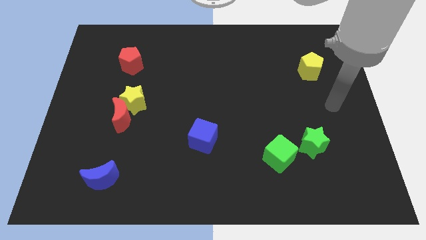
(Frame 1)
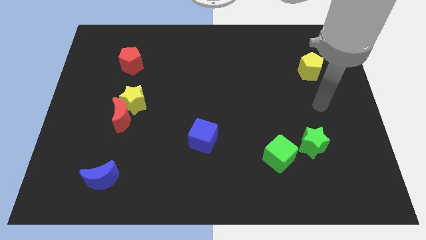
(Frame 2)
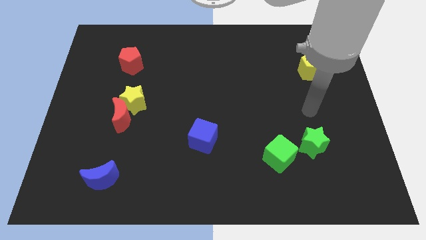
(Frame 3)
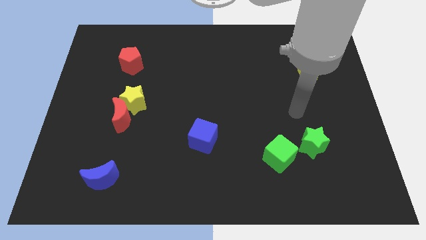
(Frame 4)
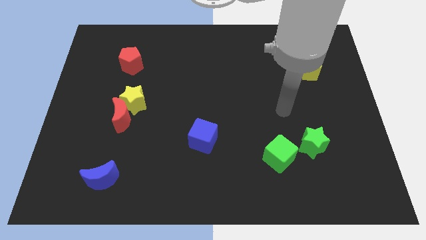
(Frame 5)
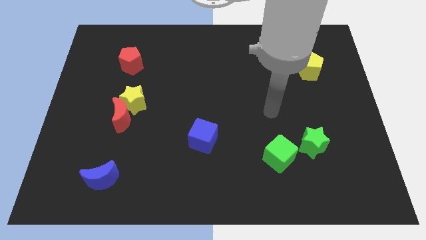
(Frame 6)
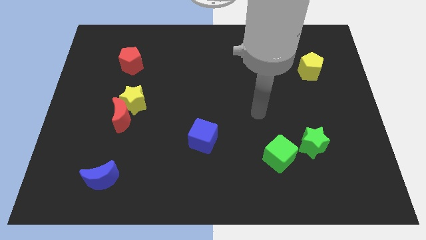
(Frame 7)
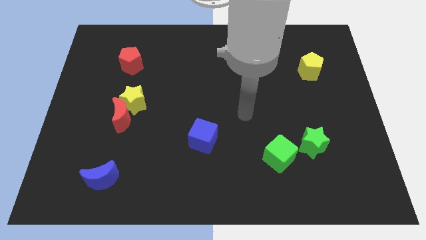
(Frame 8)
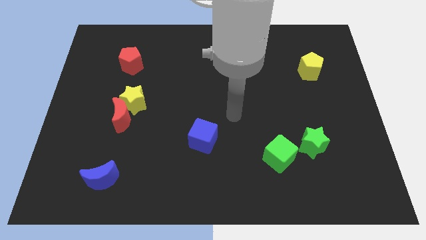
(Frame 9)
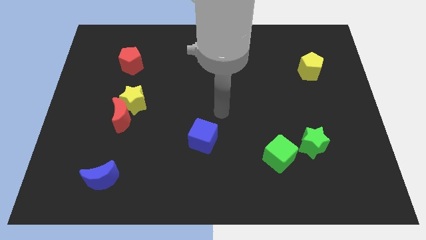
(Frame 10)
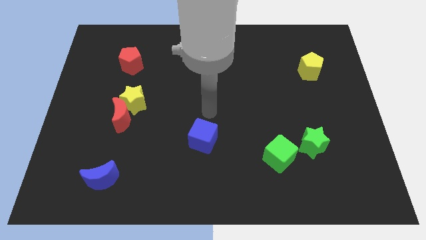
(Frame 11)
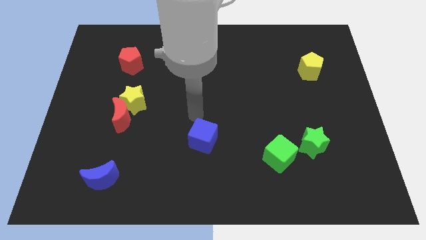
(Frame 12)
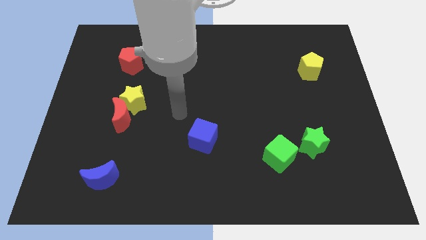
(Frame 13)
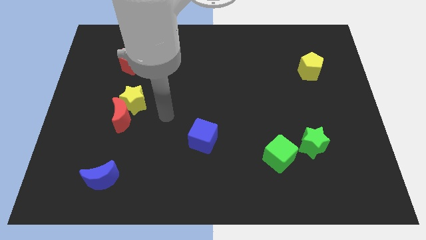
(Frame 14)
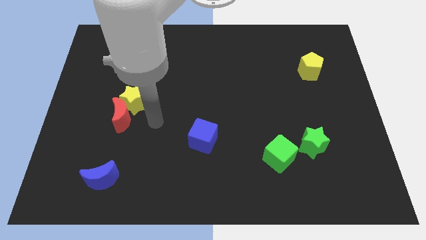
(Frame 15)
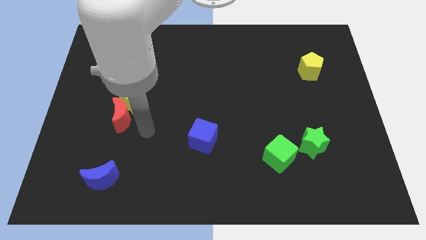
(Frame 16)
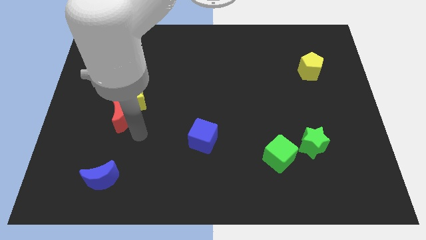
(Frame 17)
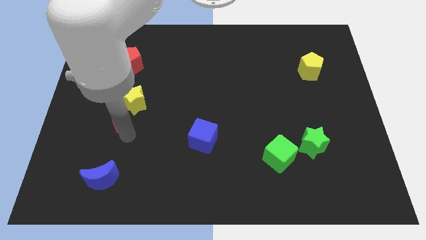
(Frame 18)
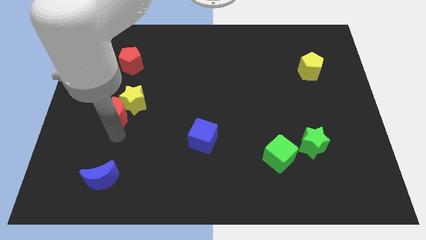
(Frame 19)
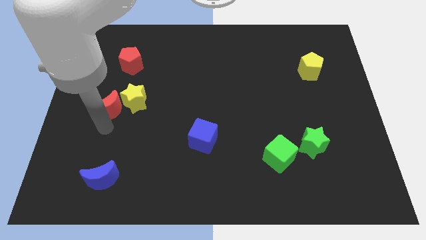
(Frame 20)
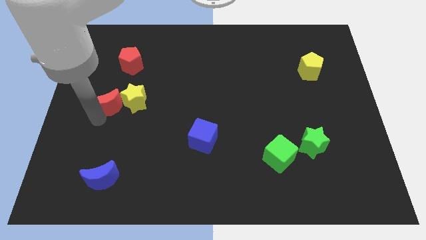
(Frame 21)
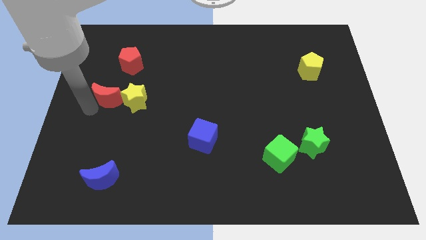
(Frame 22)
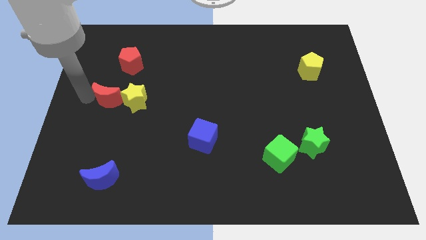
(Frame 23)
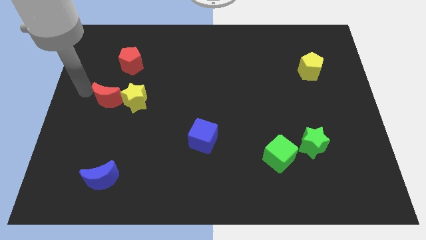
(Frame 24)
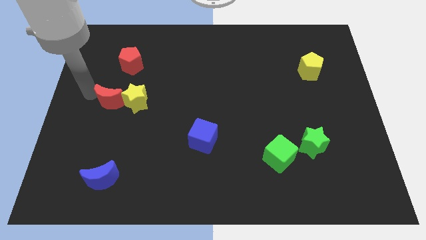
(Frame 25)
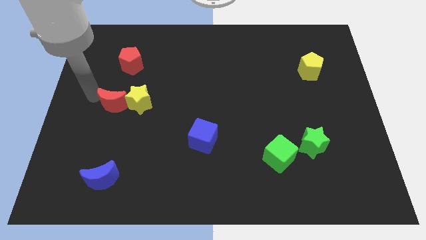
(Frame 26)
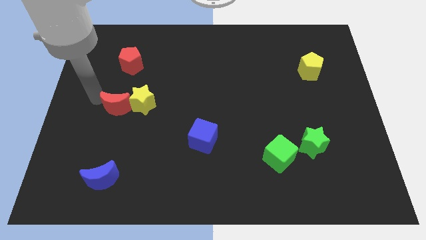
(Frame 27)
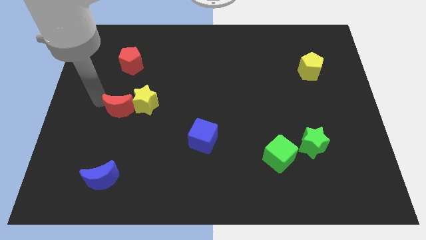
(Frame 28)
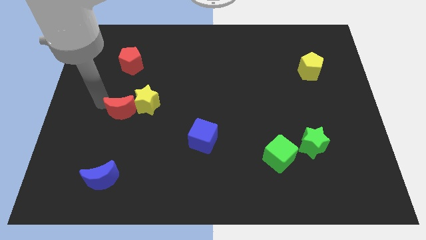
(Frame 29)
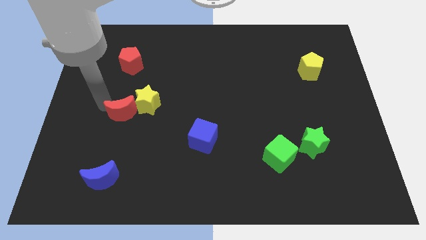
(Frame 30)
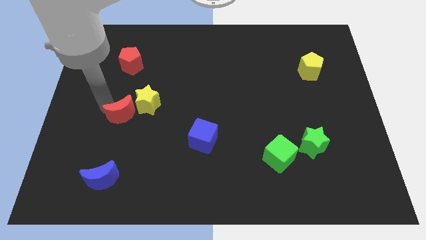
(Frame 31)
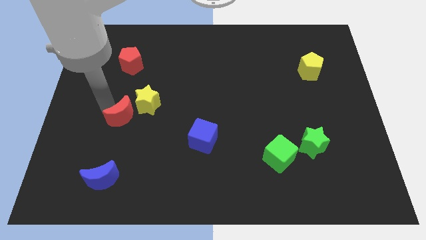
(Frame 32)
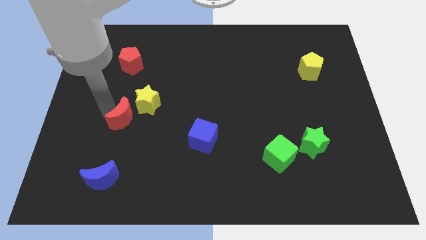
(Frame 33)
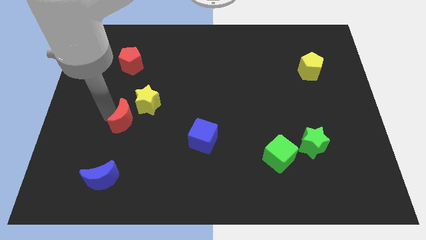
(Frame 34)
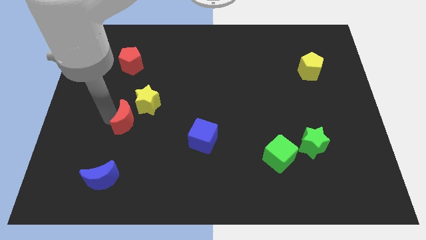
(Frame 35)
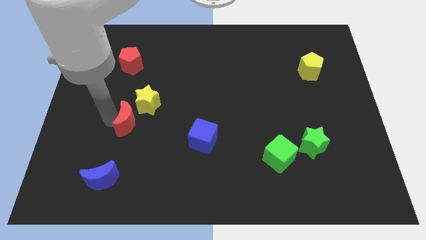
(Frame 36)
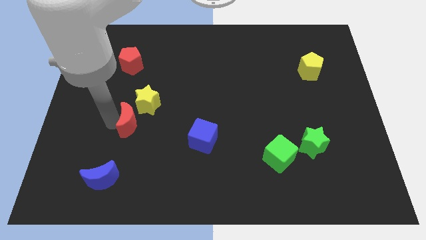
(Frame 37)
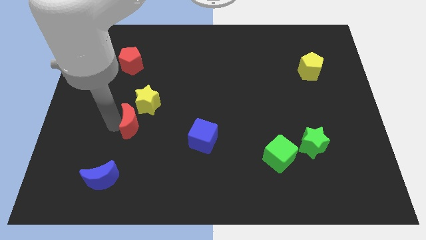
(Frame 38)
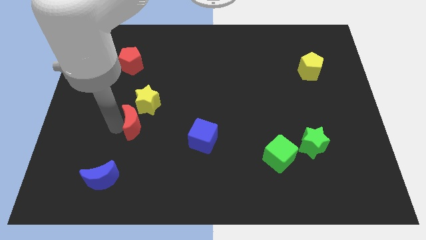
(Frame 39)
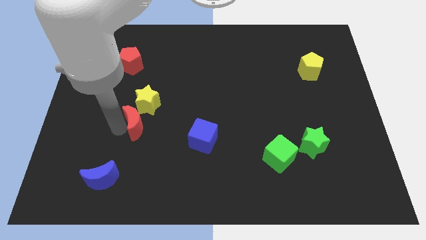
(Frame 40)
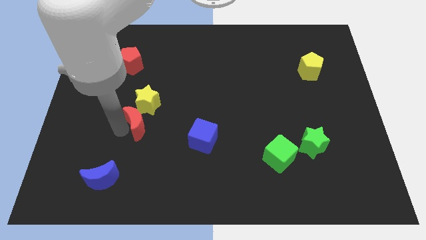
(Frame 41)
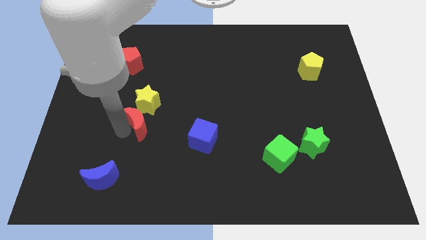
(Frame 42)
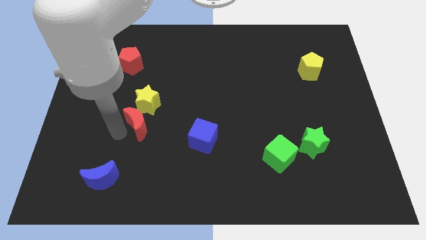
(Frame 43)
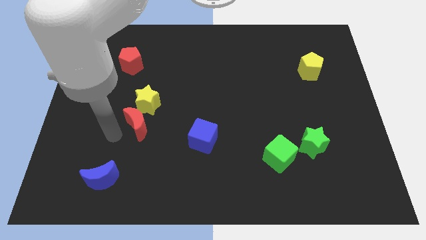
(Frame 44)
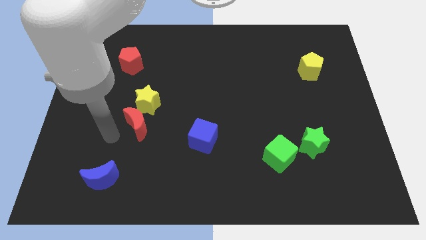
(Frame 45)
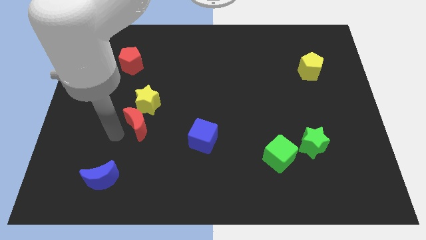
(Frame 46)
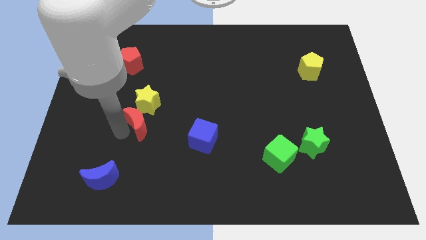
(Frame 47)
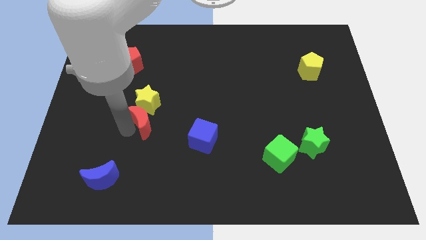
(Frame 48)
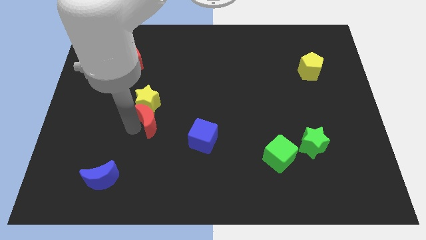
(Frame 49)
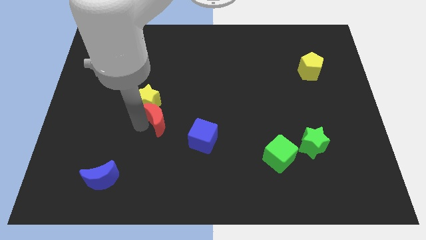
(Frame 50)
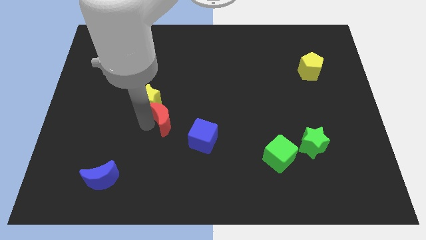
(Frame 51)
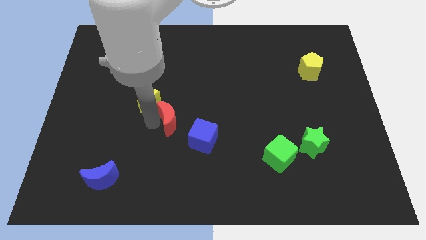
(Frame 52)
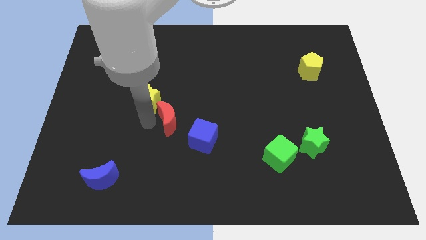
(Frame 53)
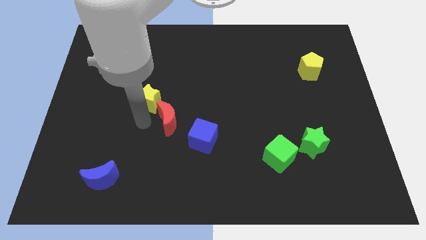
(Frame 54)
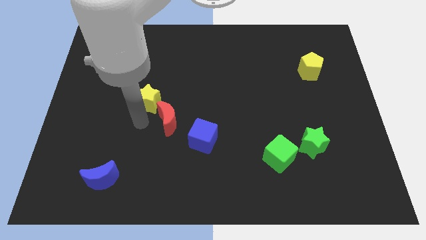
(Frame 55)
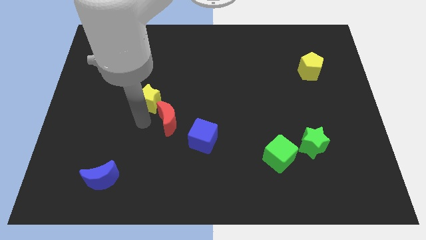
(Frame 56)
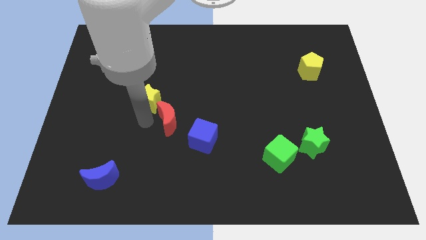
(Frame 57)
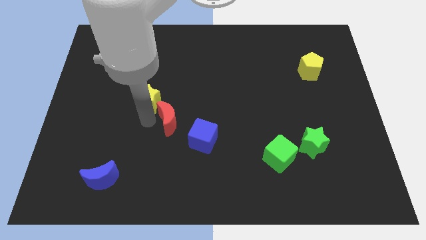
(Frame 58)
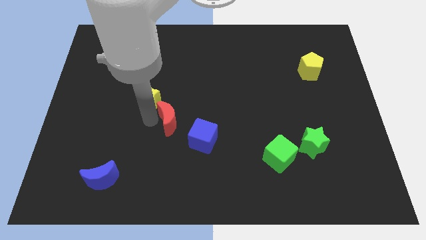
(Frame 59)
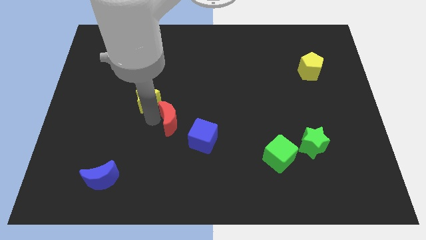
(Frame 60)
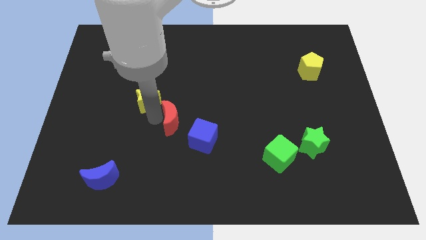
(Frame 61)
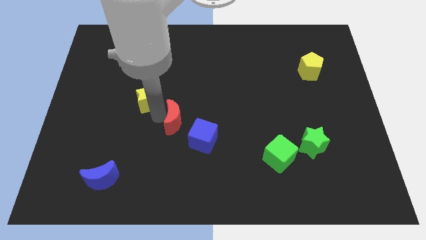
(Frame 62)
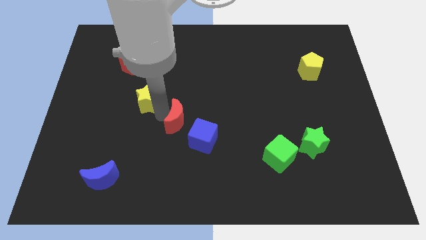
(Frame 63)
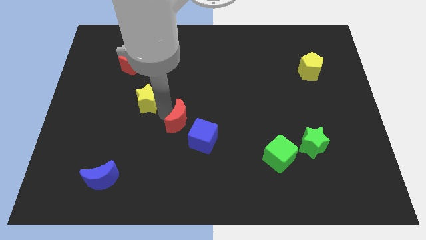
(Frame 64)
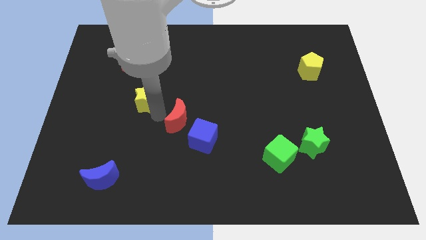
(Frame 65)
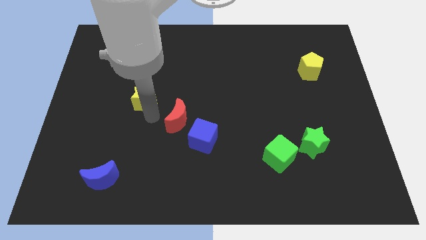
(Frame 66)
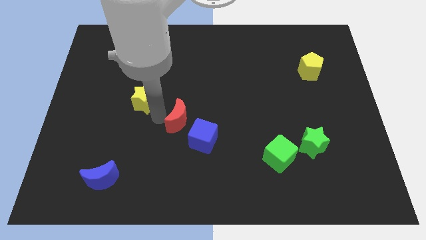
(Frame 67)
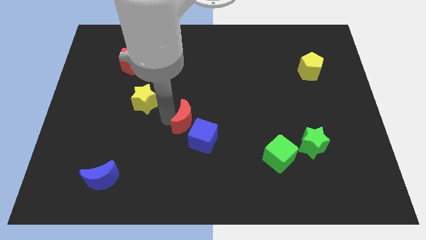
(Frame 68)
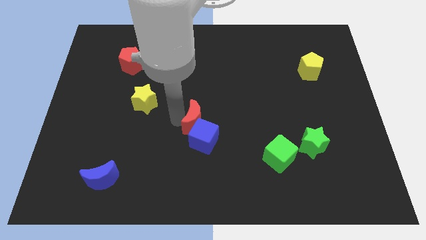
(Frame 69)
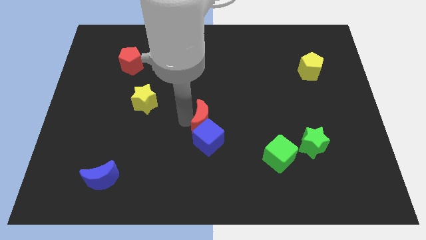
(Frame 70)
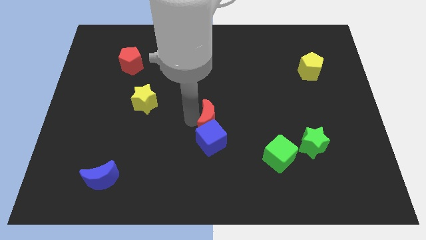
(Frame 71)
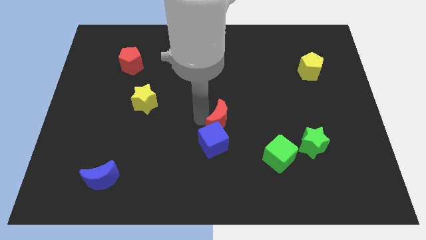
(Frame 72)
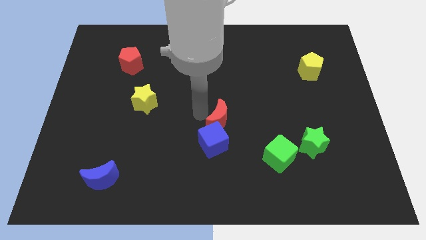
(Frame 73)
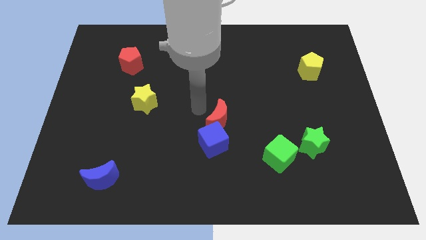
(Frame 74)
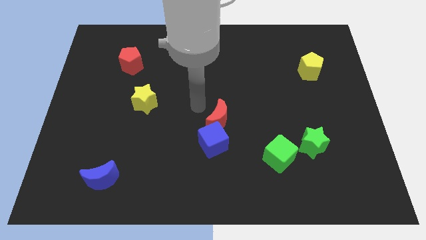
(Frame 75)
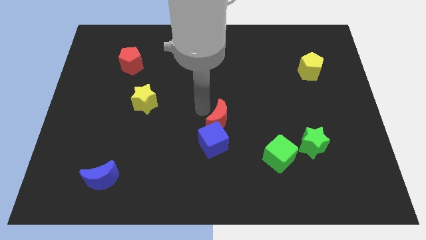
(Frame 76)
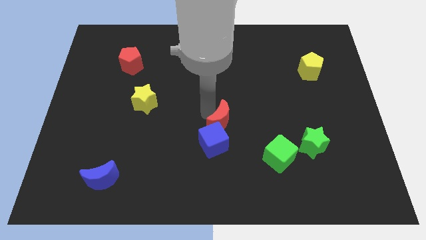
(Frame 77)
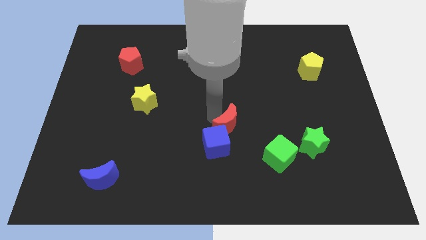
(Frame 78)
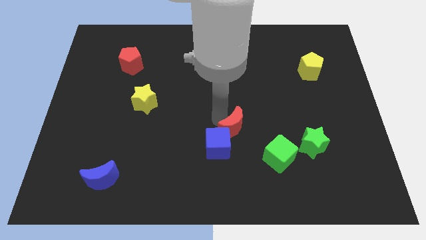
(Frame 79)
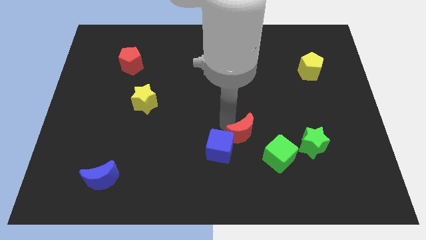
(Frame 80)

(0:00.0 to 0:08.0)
slide the red moon just left of the green star
